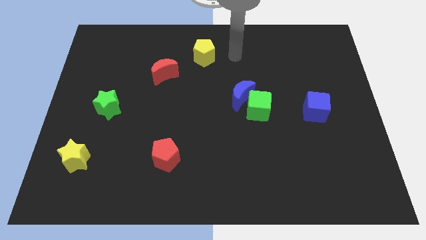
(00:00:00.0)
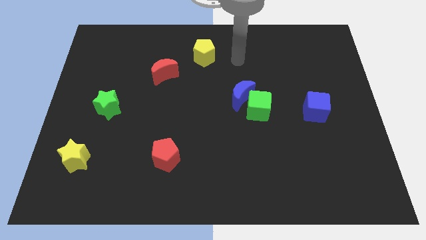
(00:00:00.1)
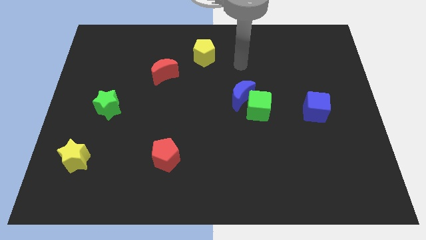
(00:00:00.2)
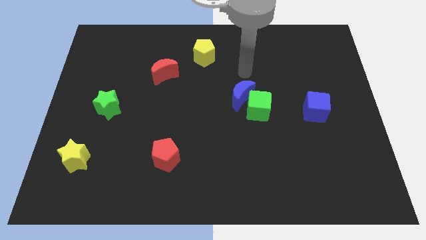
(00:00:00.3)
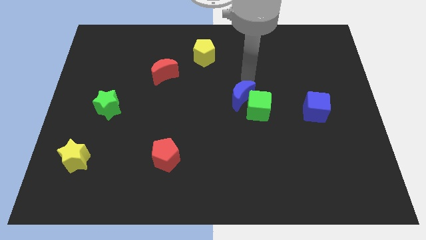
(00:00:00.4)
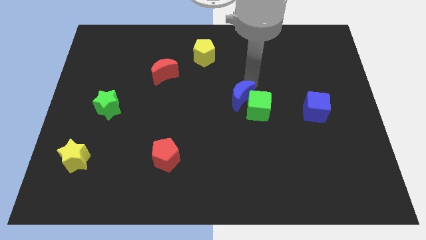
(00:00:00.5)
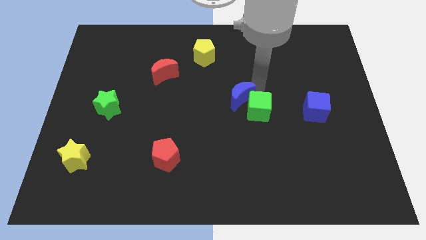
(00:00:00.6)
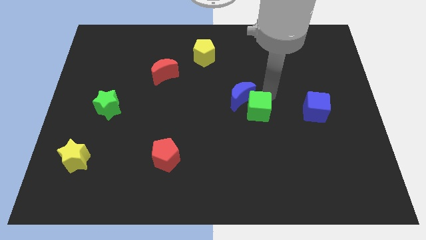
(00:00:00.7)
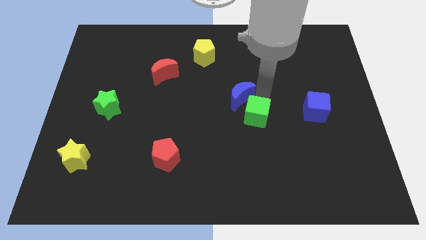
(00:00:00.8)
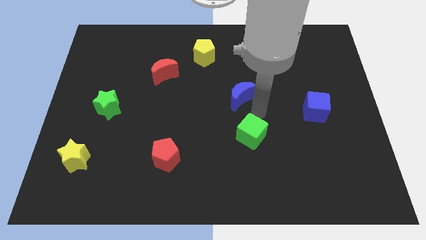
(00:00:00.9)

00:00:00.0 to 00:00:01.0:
move the blue moon away from the green cube

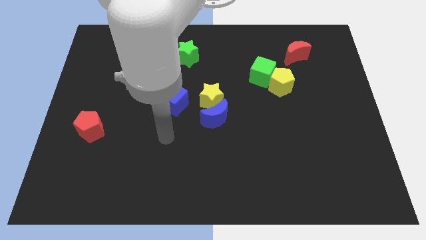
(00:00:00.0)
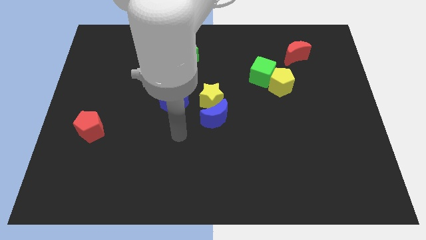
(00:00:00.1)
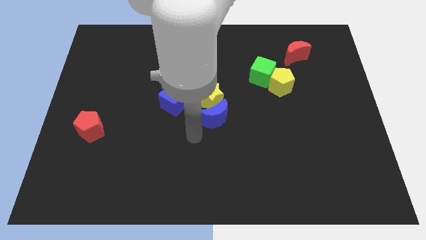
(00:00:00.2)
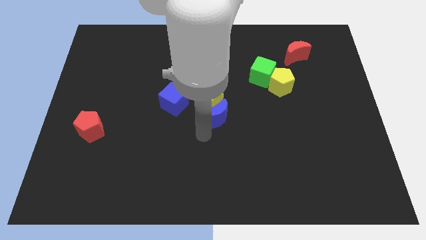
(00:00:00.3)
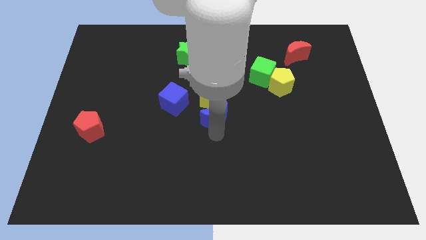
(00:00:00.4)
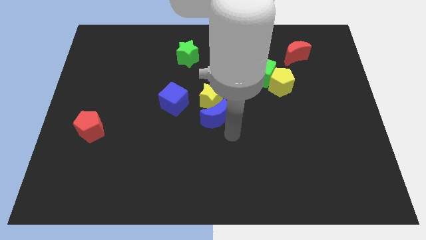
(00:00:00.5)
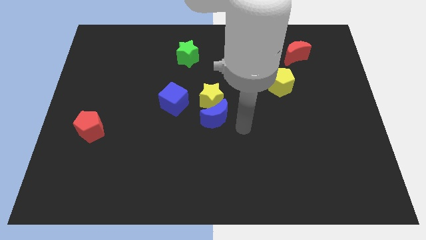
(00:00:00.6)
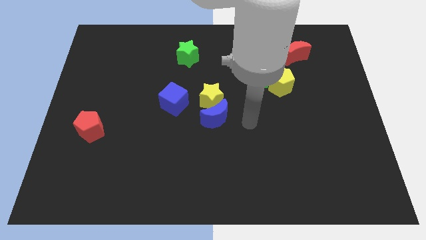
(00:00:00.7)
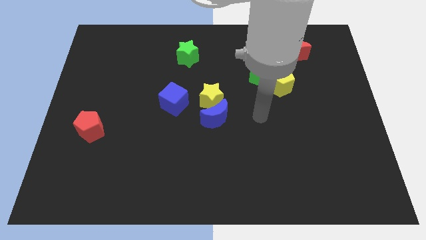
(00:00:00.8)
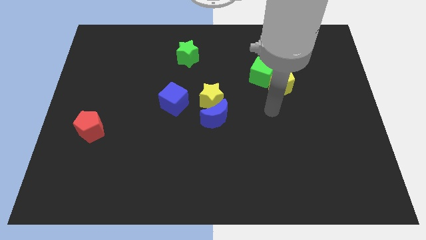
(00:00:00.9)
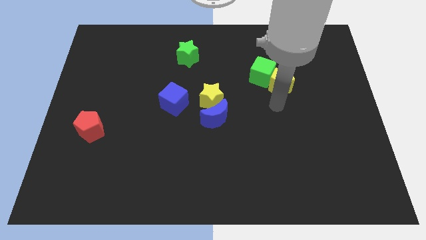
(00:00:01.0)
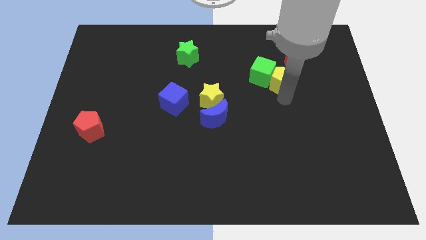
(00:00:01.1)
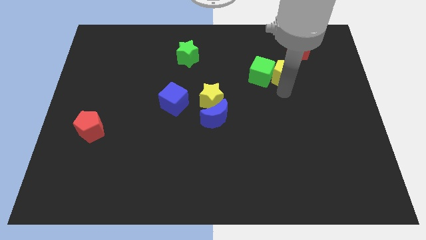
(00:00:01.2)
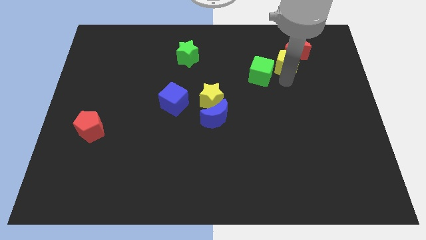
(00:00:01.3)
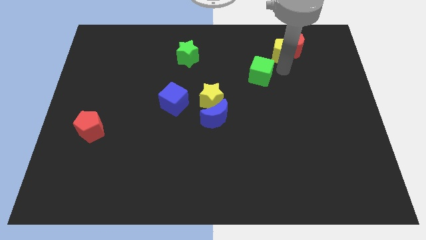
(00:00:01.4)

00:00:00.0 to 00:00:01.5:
separate the green cube from the yellow pentagon

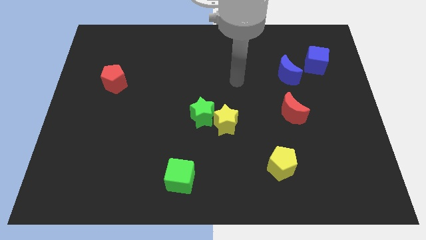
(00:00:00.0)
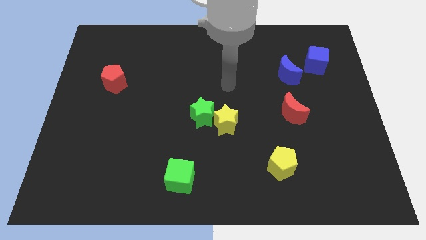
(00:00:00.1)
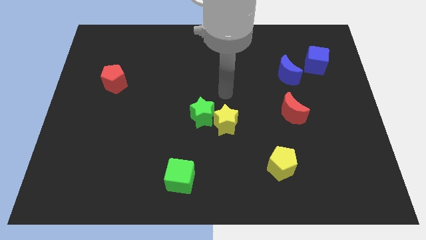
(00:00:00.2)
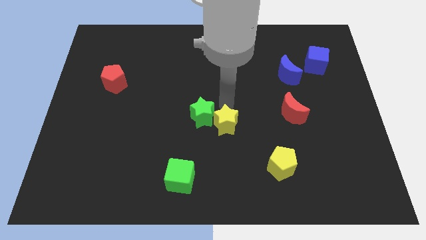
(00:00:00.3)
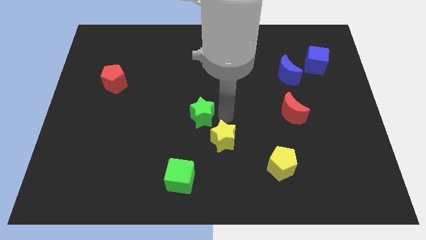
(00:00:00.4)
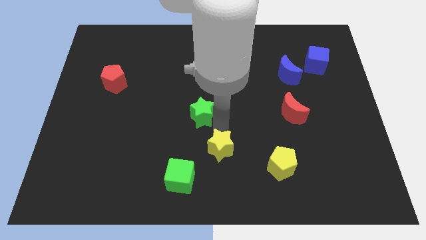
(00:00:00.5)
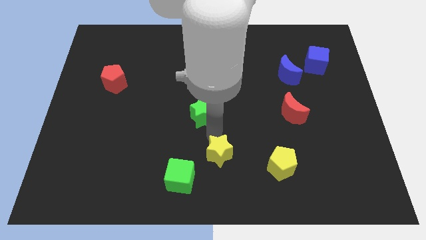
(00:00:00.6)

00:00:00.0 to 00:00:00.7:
pull the green star apart from the yellow star

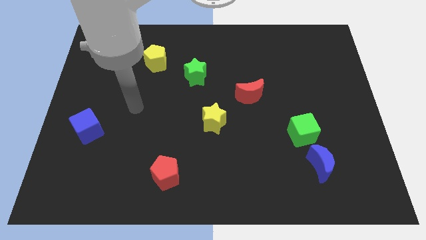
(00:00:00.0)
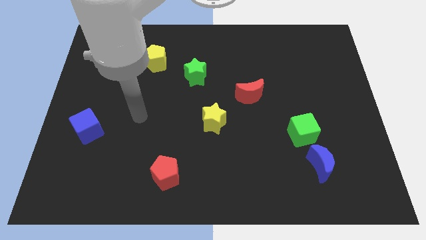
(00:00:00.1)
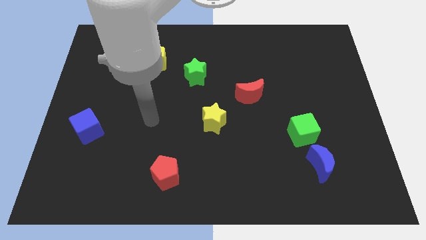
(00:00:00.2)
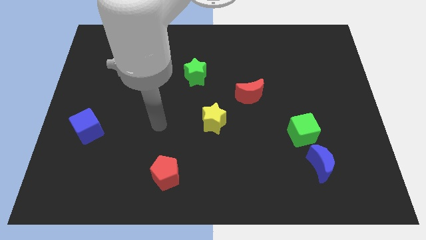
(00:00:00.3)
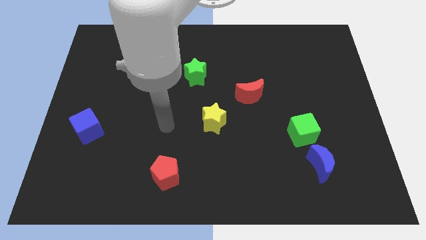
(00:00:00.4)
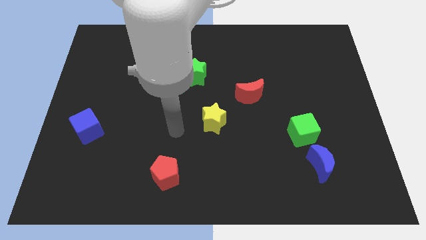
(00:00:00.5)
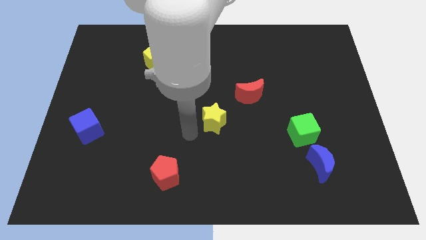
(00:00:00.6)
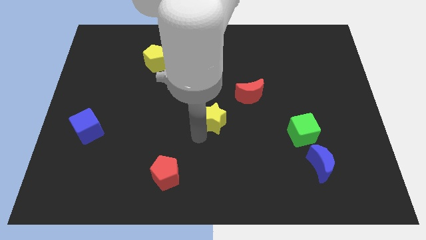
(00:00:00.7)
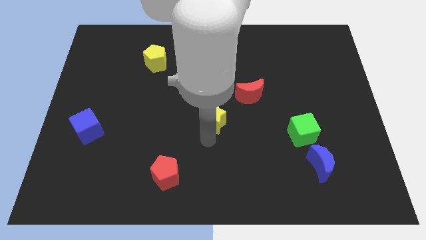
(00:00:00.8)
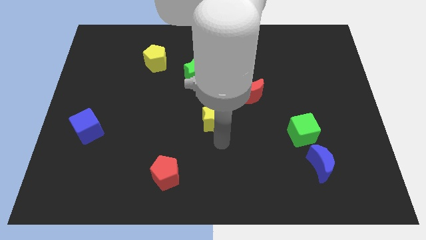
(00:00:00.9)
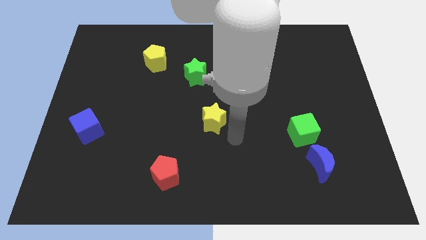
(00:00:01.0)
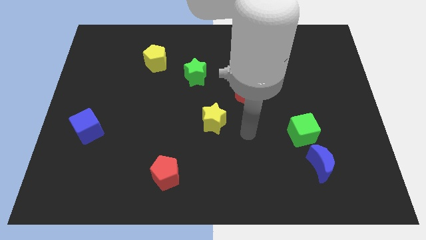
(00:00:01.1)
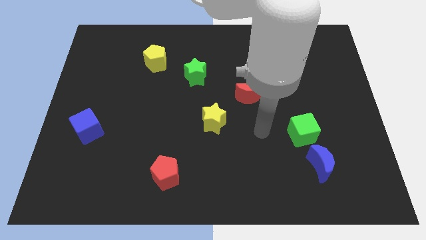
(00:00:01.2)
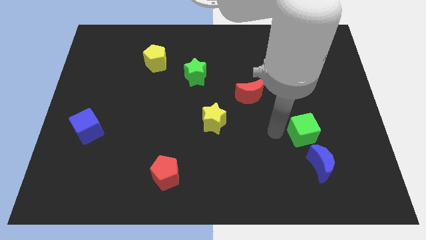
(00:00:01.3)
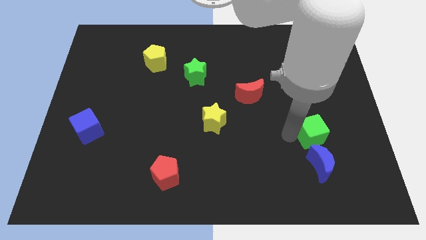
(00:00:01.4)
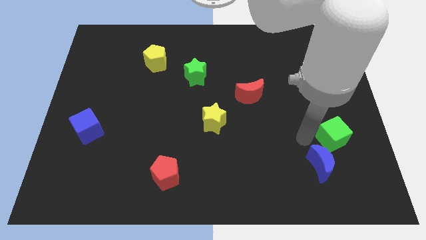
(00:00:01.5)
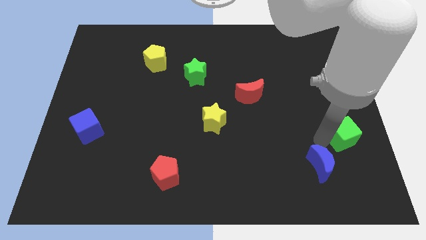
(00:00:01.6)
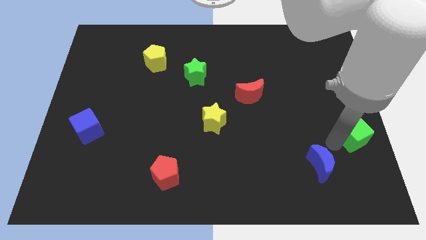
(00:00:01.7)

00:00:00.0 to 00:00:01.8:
pull the blue moon apart from the green cube

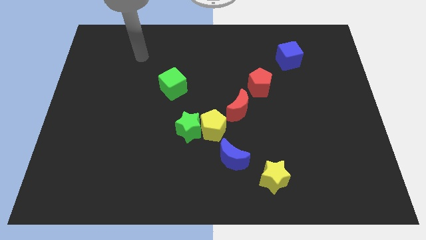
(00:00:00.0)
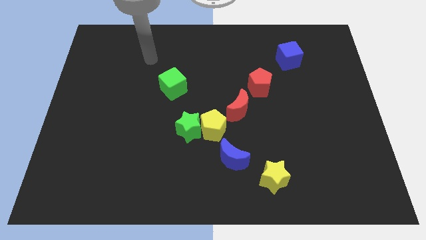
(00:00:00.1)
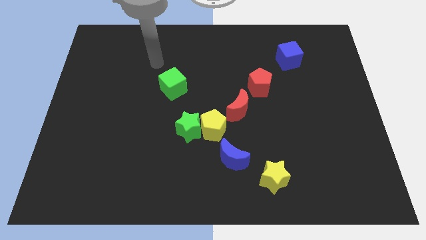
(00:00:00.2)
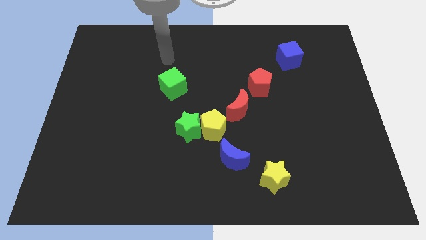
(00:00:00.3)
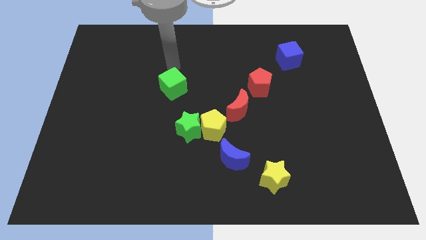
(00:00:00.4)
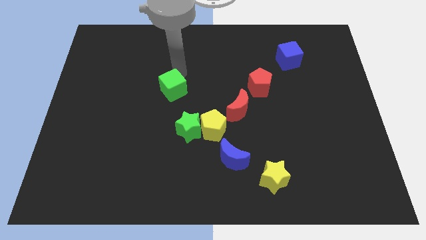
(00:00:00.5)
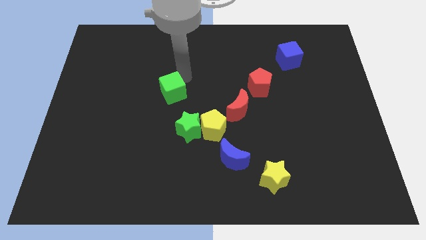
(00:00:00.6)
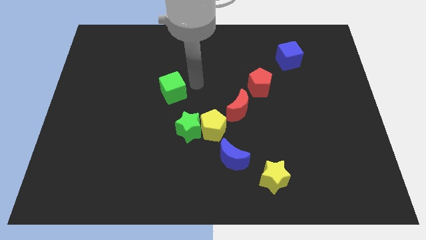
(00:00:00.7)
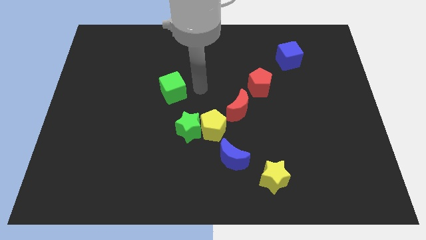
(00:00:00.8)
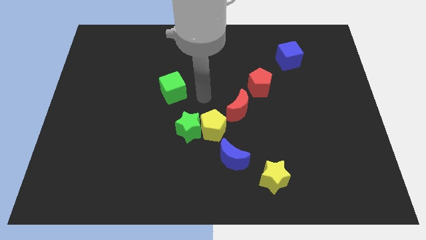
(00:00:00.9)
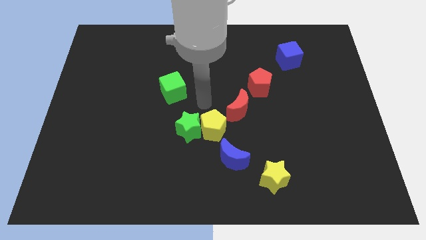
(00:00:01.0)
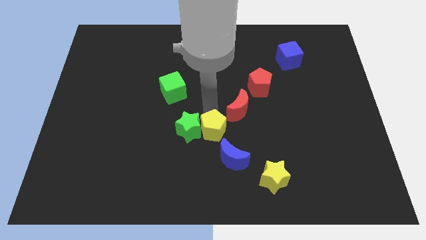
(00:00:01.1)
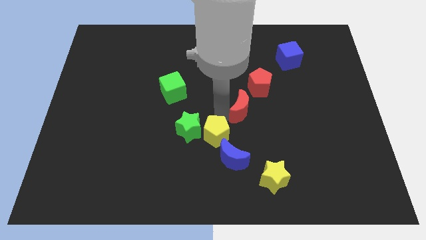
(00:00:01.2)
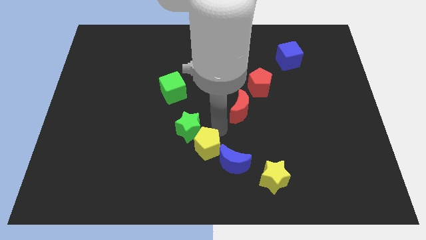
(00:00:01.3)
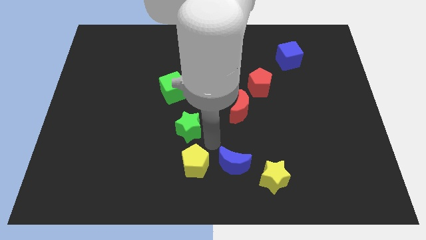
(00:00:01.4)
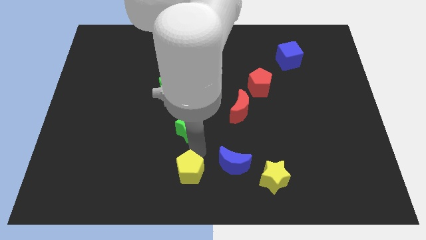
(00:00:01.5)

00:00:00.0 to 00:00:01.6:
move the green star away from the yellow pentagon

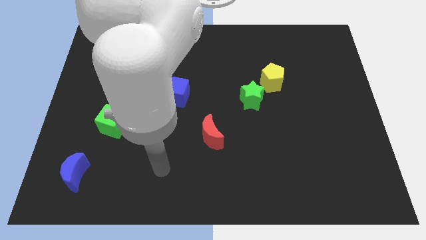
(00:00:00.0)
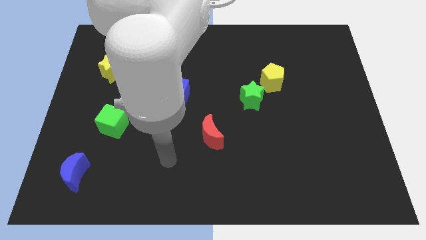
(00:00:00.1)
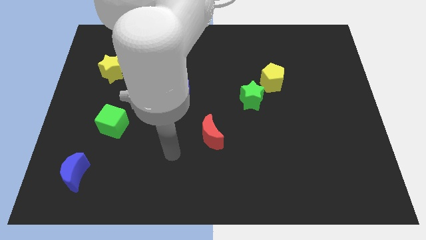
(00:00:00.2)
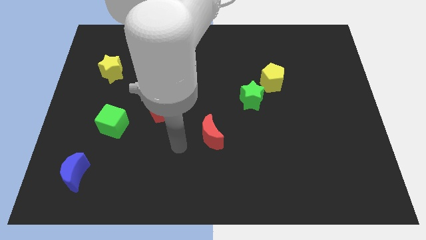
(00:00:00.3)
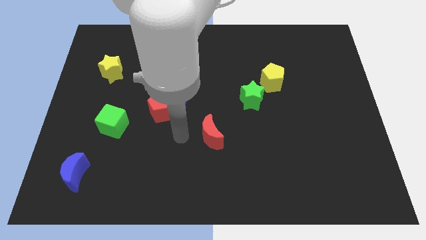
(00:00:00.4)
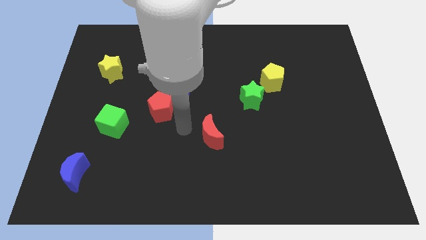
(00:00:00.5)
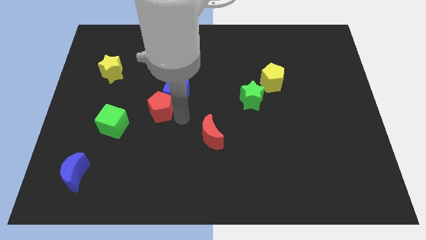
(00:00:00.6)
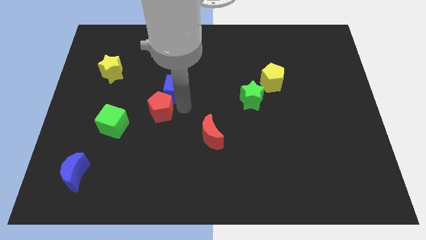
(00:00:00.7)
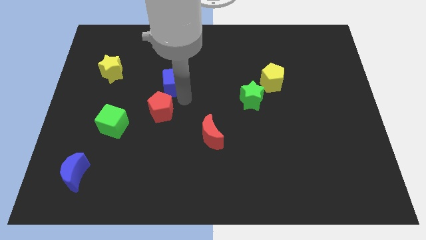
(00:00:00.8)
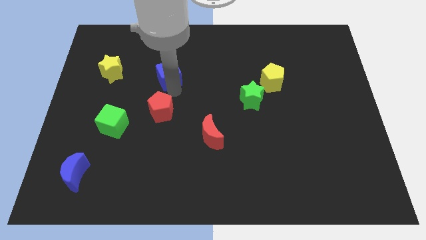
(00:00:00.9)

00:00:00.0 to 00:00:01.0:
move the red pentagon away from the blue cube

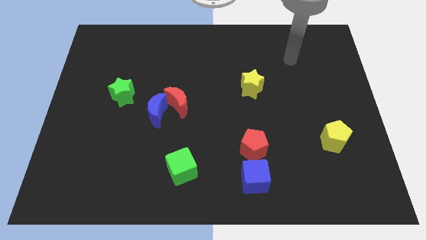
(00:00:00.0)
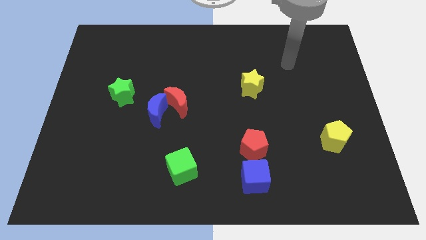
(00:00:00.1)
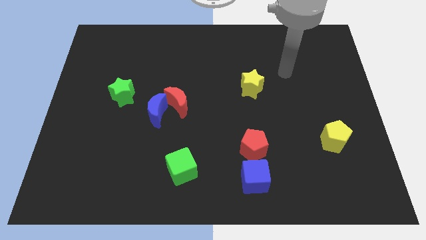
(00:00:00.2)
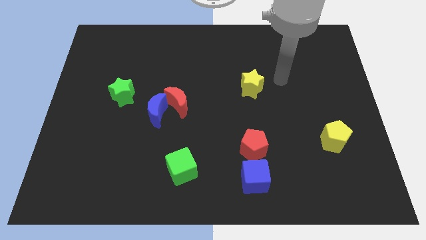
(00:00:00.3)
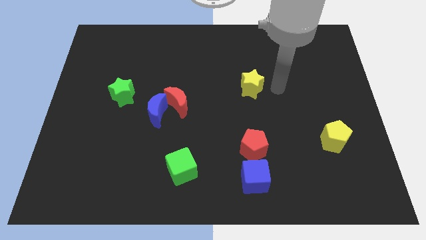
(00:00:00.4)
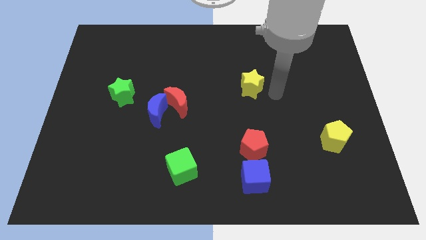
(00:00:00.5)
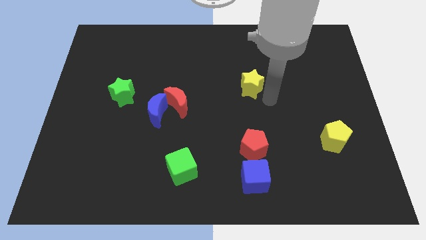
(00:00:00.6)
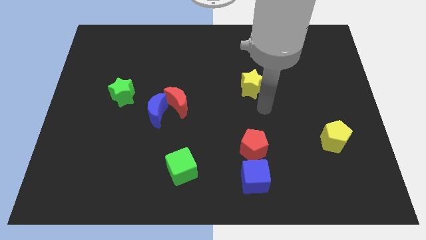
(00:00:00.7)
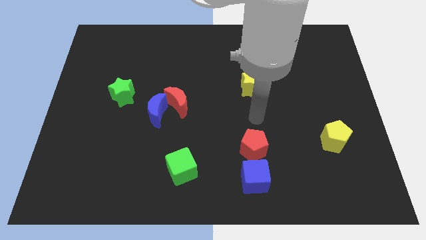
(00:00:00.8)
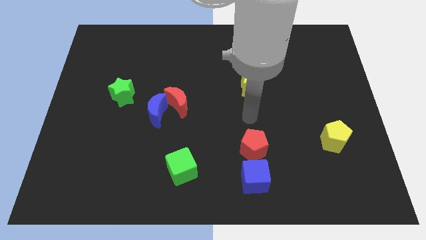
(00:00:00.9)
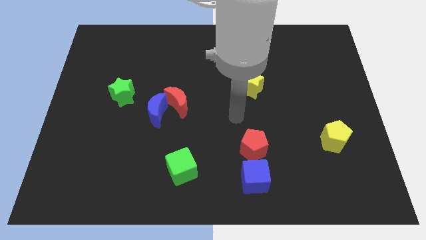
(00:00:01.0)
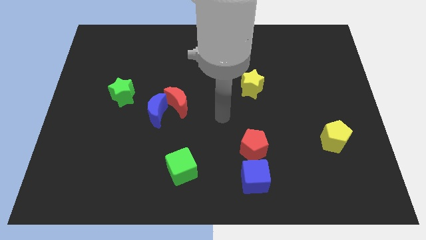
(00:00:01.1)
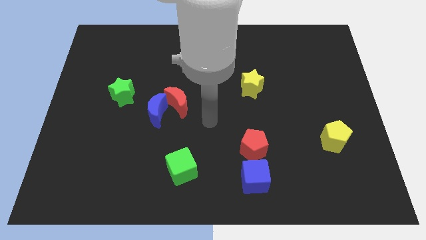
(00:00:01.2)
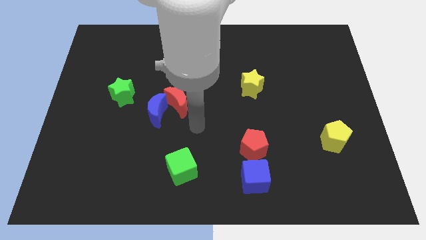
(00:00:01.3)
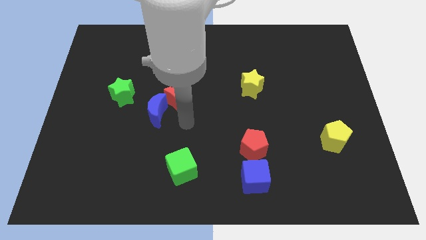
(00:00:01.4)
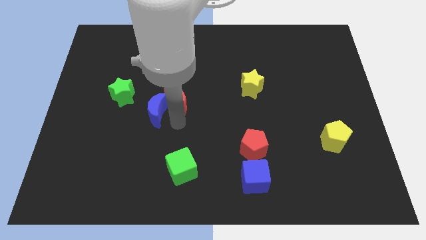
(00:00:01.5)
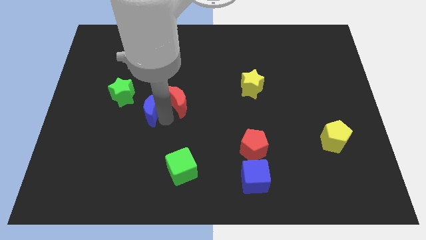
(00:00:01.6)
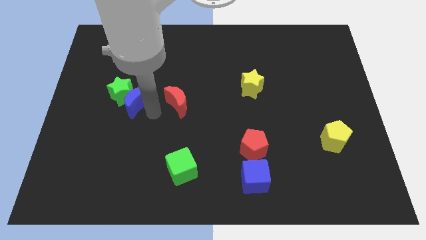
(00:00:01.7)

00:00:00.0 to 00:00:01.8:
move the red moon away from the blue moon
